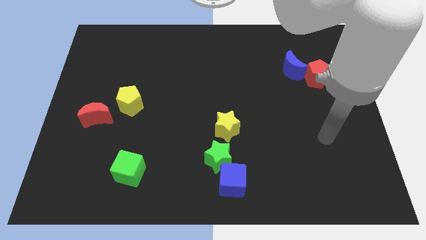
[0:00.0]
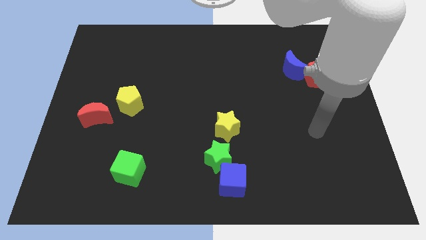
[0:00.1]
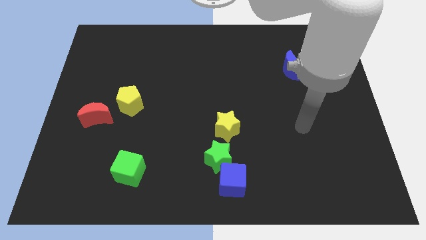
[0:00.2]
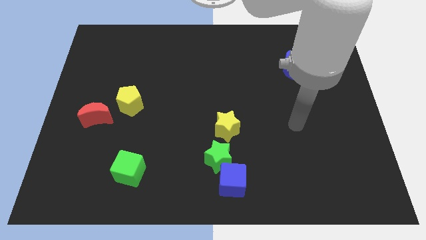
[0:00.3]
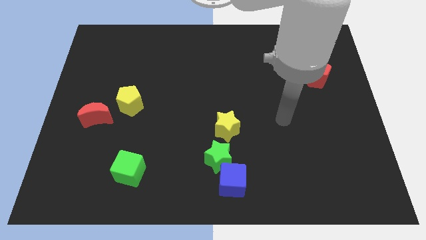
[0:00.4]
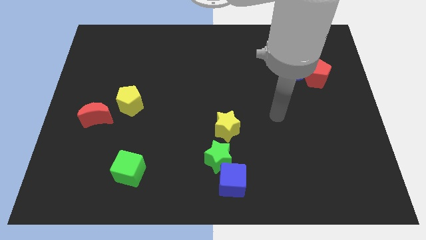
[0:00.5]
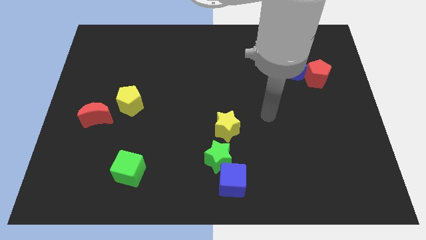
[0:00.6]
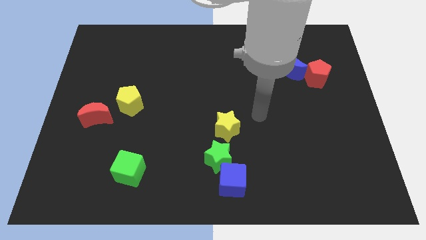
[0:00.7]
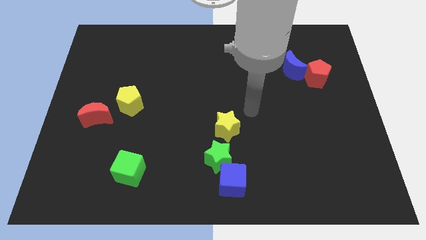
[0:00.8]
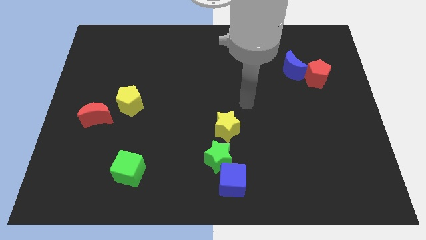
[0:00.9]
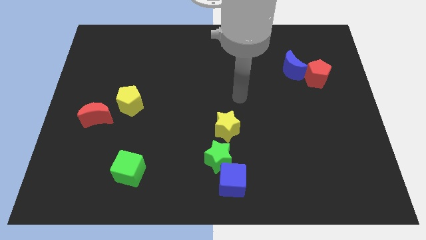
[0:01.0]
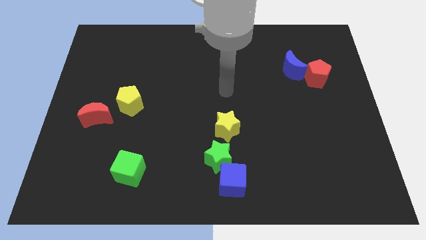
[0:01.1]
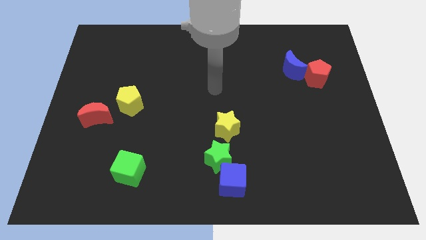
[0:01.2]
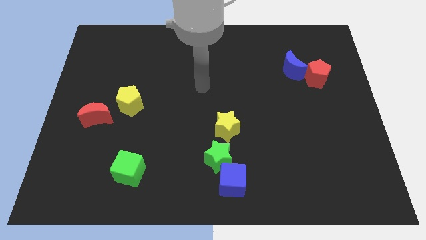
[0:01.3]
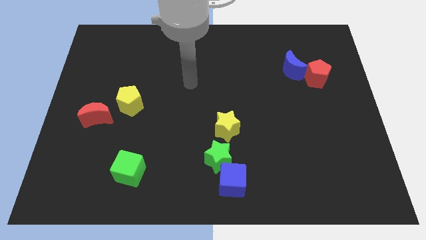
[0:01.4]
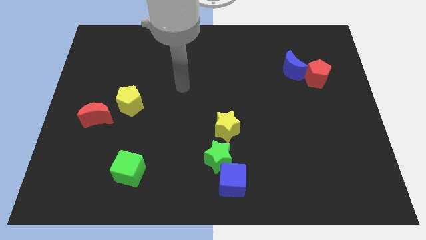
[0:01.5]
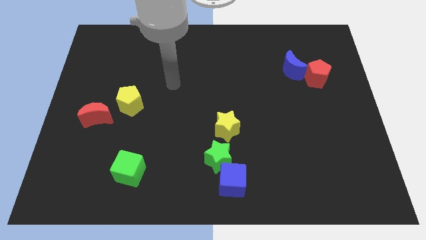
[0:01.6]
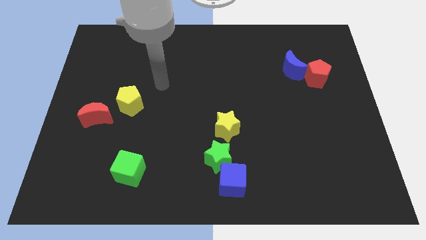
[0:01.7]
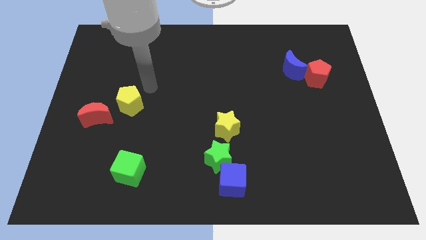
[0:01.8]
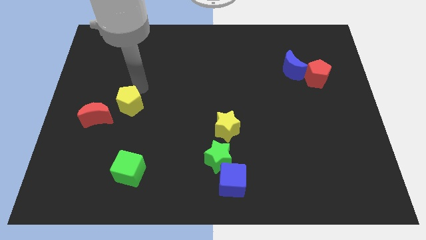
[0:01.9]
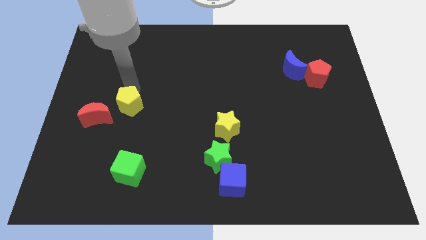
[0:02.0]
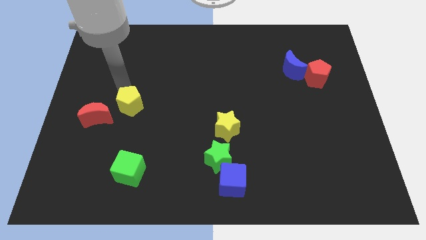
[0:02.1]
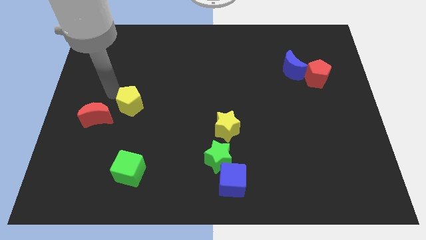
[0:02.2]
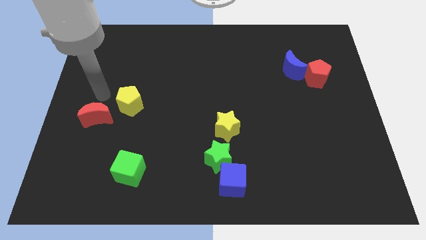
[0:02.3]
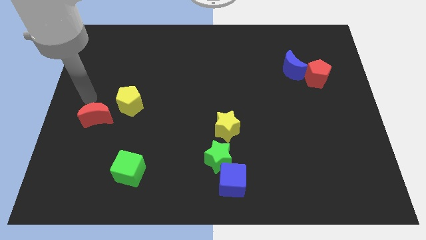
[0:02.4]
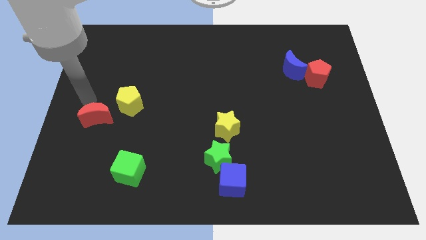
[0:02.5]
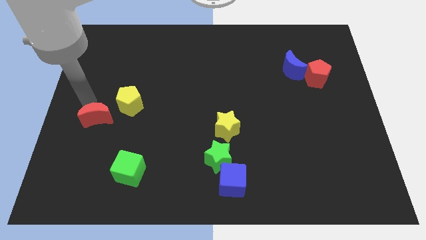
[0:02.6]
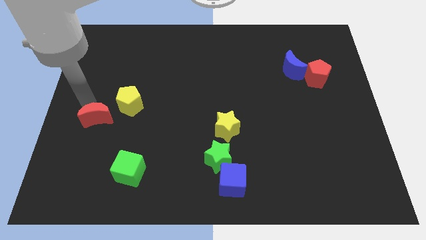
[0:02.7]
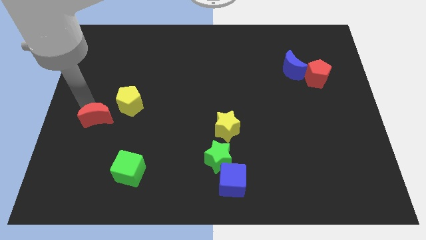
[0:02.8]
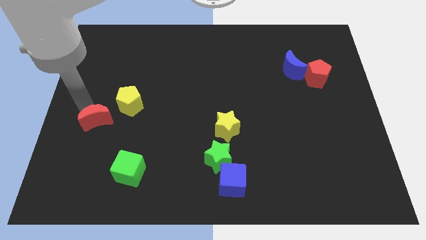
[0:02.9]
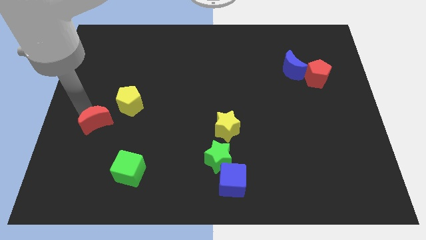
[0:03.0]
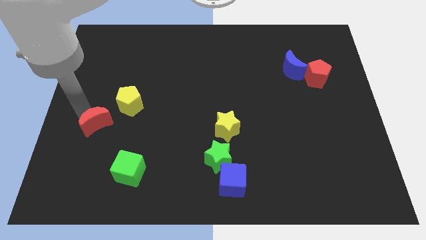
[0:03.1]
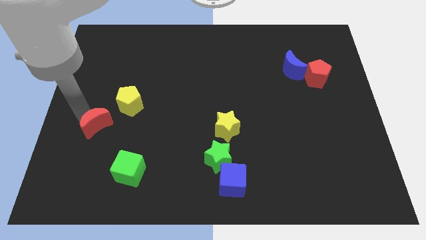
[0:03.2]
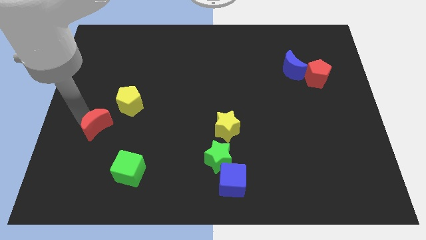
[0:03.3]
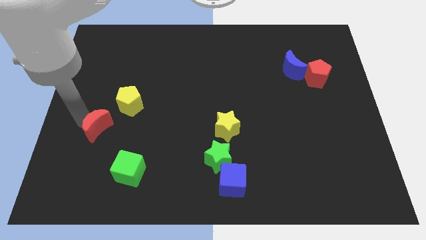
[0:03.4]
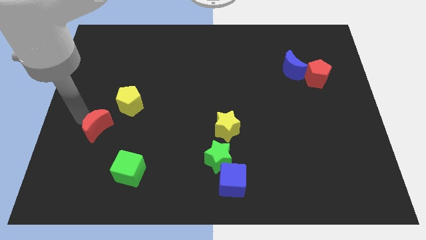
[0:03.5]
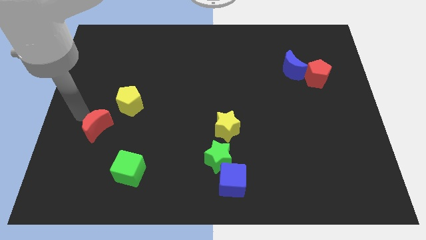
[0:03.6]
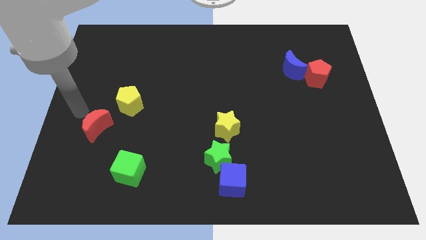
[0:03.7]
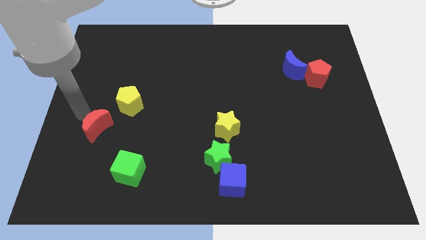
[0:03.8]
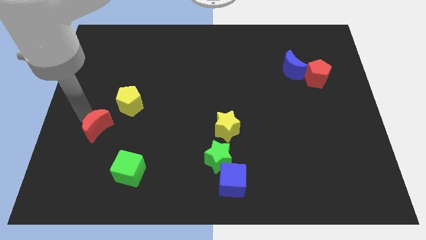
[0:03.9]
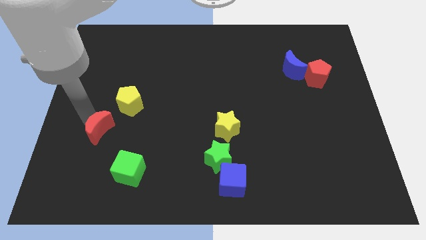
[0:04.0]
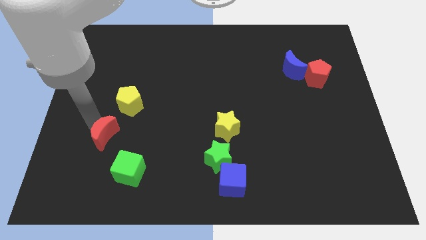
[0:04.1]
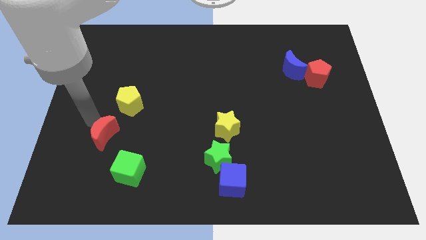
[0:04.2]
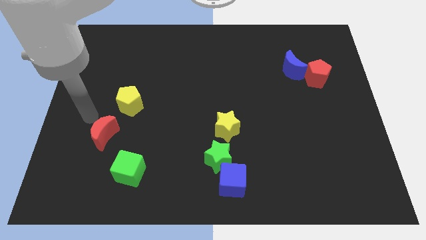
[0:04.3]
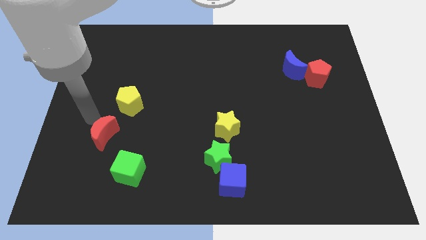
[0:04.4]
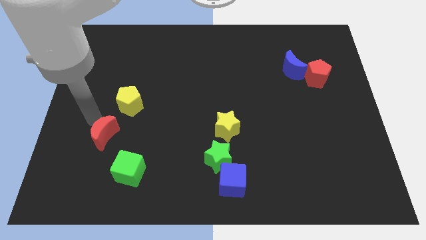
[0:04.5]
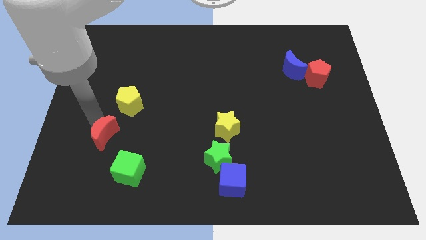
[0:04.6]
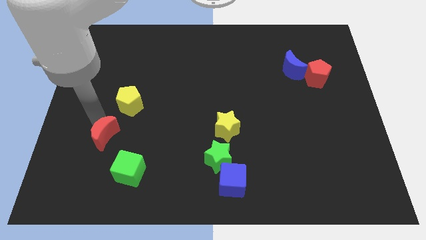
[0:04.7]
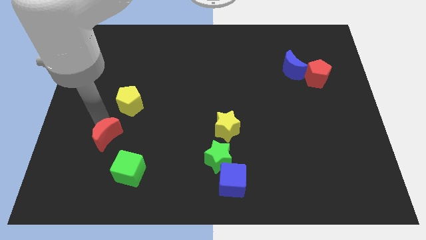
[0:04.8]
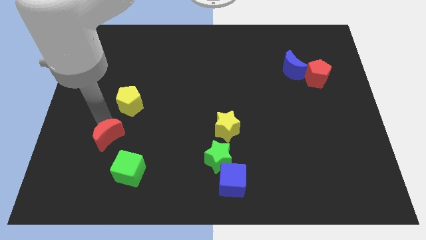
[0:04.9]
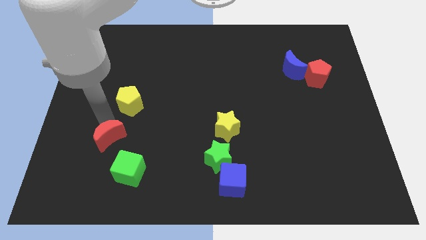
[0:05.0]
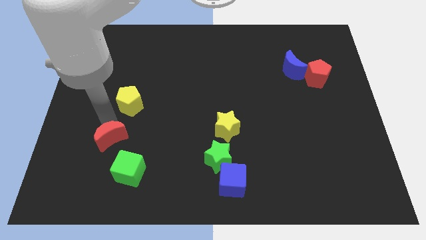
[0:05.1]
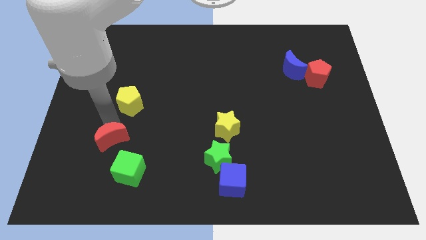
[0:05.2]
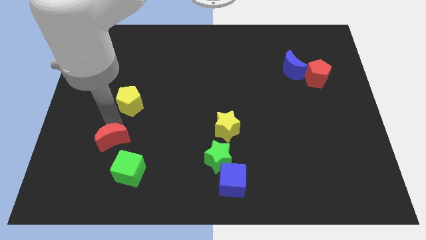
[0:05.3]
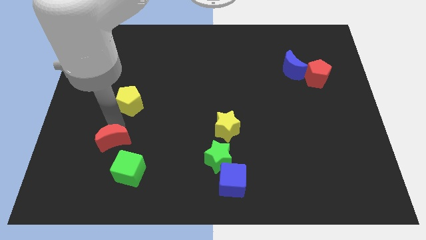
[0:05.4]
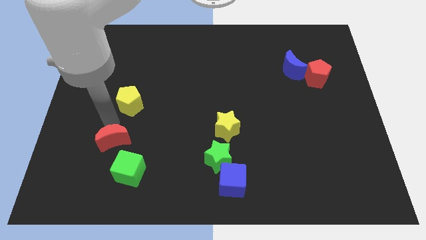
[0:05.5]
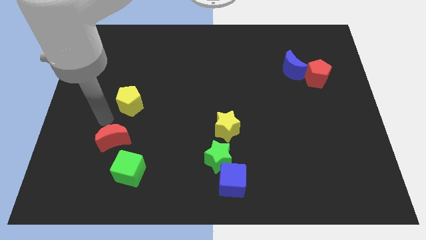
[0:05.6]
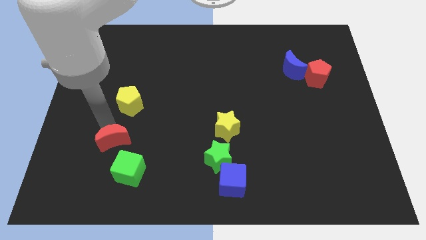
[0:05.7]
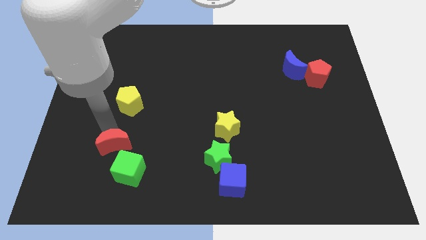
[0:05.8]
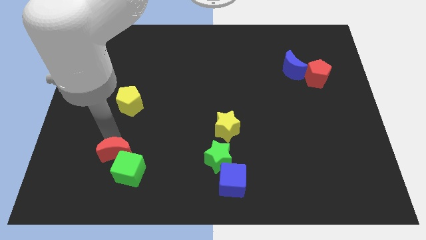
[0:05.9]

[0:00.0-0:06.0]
slide the red moon towards the green cube
